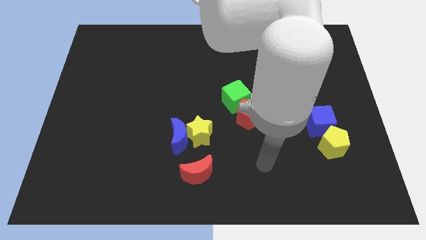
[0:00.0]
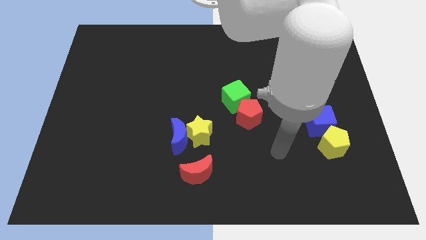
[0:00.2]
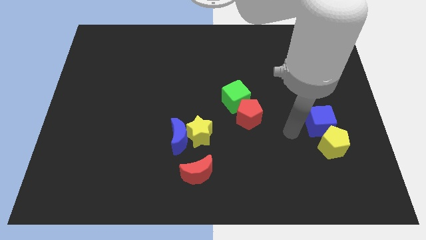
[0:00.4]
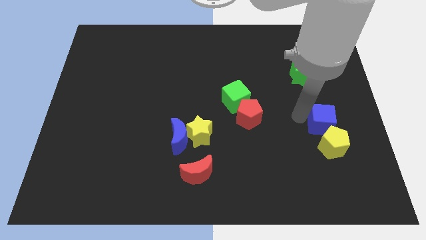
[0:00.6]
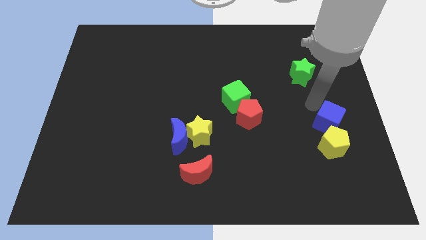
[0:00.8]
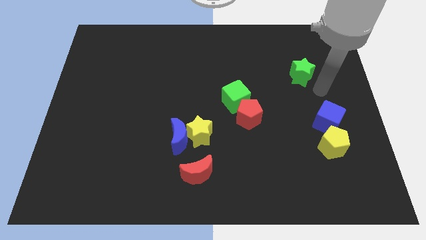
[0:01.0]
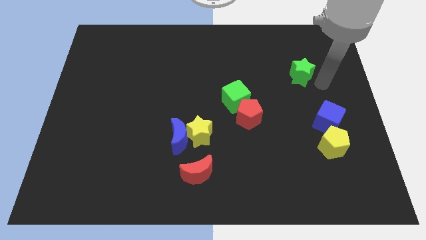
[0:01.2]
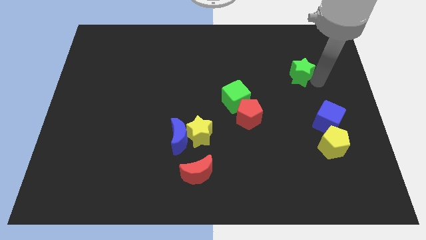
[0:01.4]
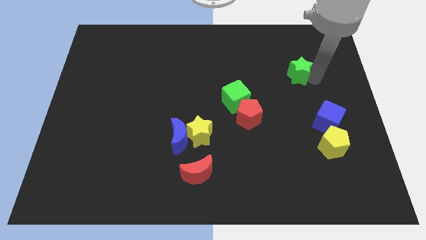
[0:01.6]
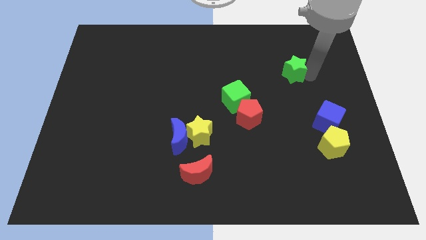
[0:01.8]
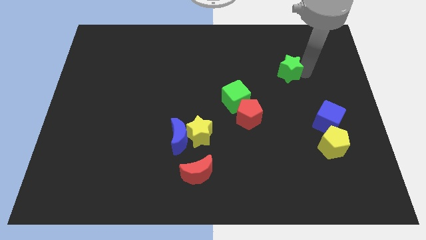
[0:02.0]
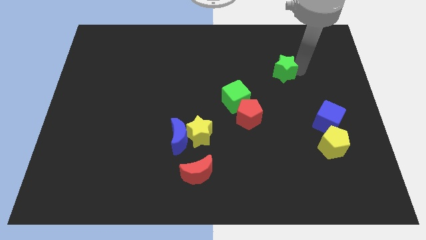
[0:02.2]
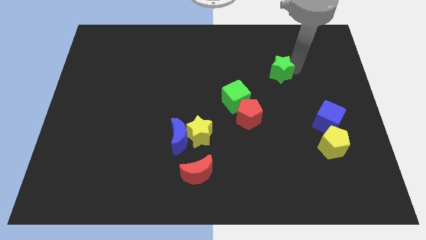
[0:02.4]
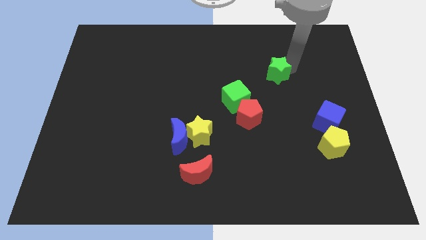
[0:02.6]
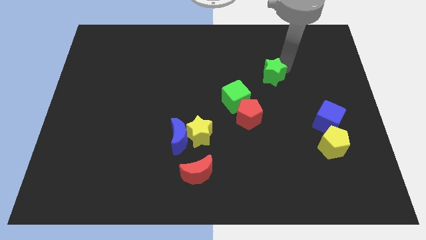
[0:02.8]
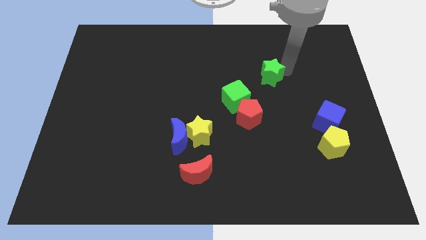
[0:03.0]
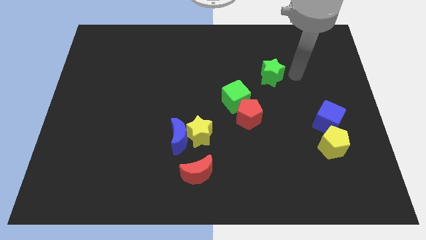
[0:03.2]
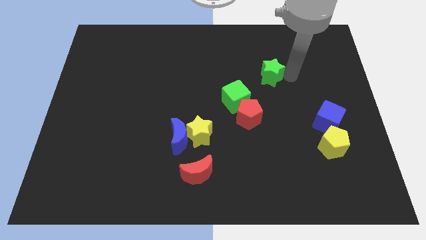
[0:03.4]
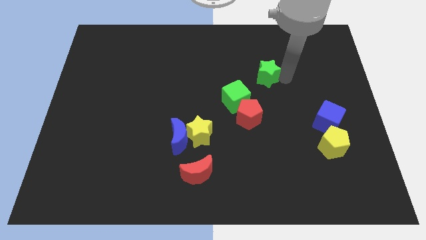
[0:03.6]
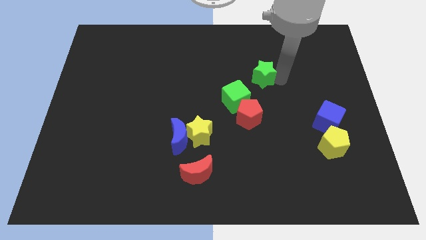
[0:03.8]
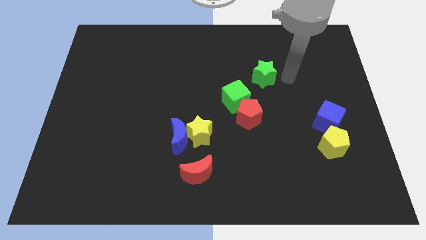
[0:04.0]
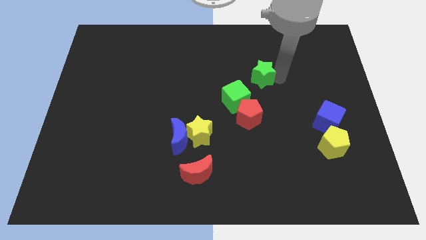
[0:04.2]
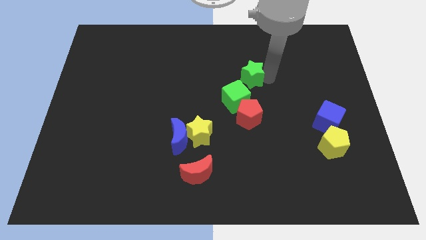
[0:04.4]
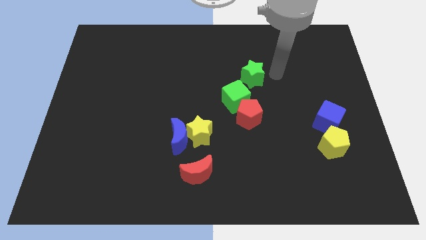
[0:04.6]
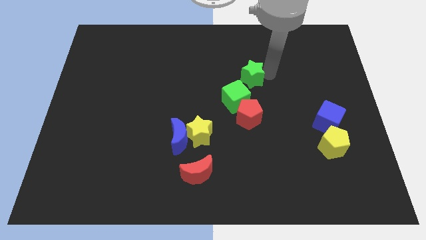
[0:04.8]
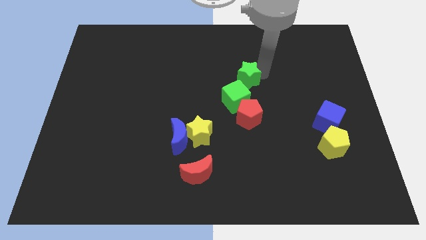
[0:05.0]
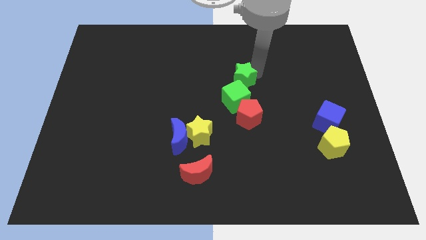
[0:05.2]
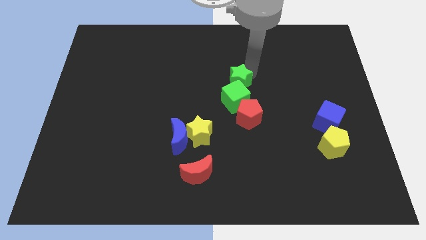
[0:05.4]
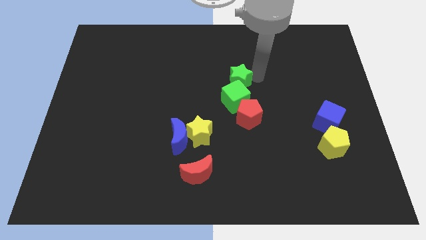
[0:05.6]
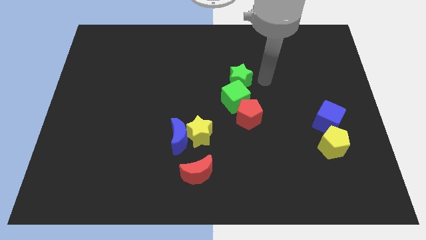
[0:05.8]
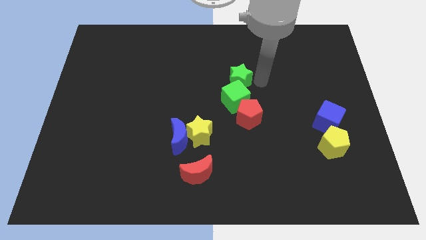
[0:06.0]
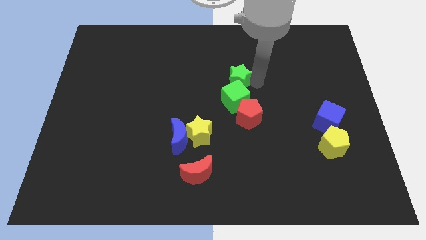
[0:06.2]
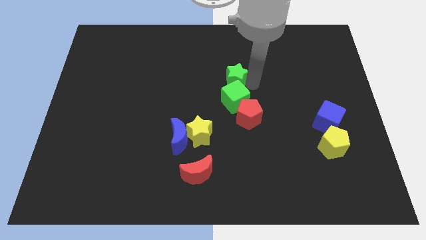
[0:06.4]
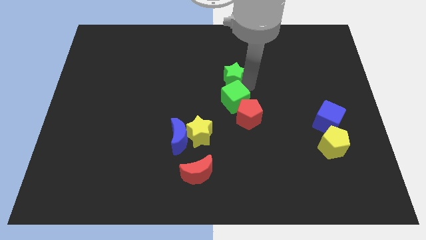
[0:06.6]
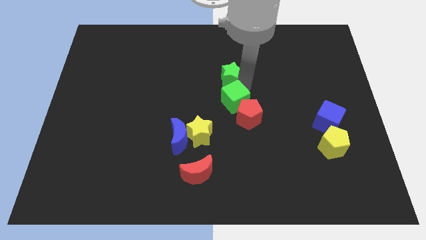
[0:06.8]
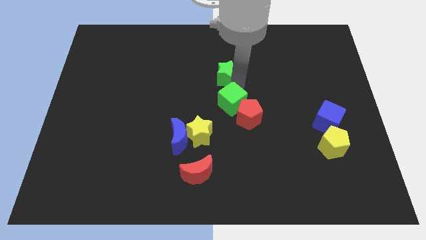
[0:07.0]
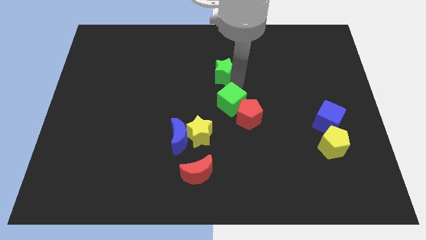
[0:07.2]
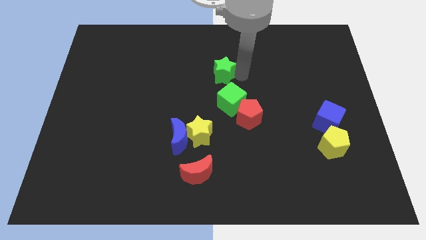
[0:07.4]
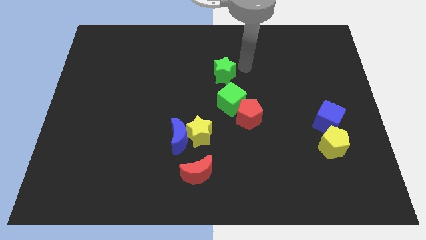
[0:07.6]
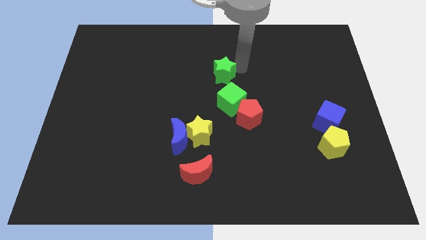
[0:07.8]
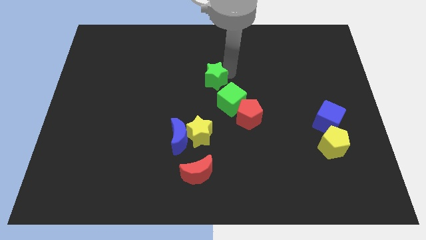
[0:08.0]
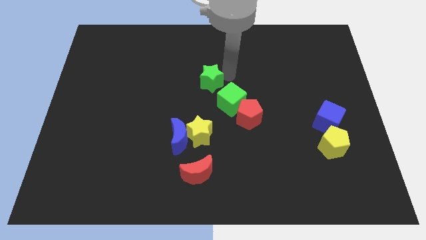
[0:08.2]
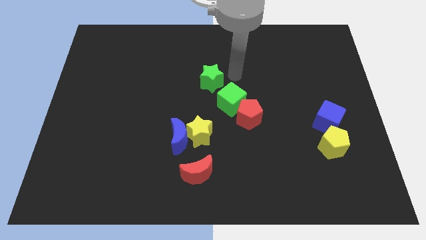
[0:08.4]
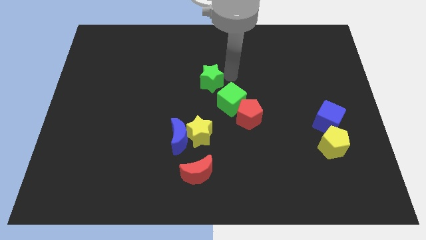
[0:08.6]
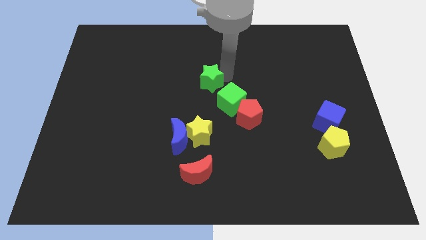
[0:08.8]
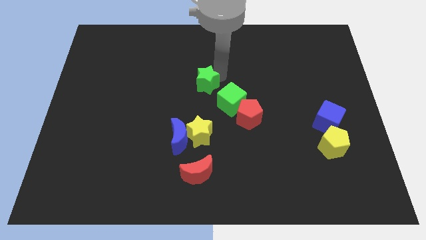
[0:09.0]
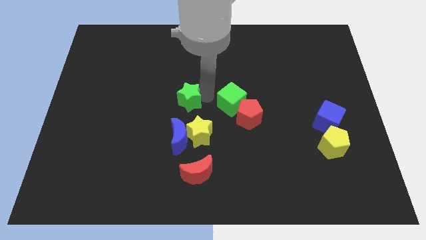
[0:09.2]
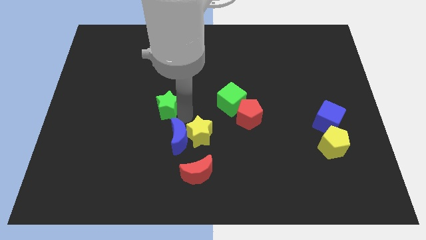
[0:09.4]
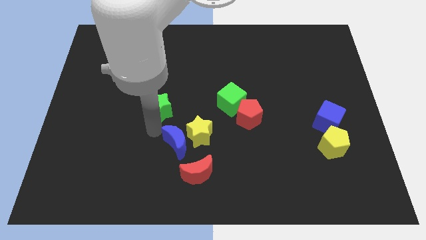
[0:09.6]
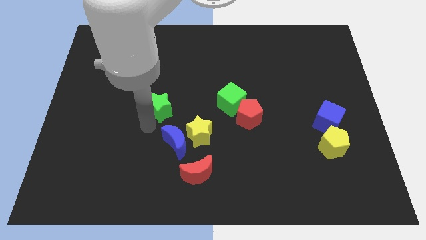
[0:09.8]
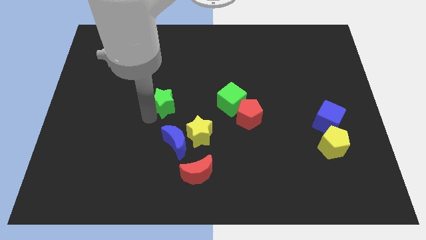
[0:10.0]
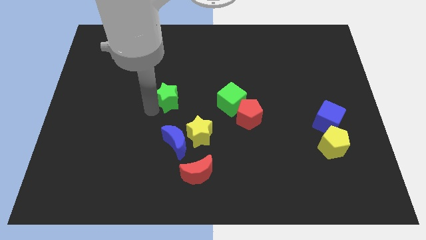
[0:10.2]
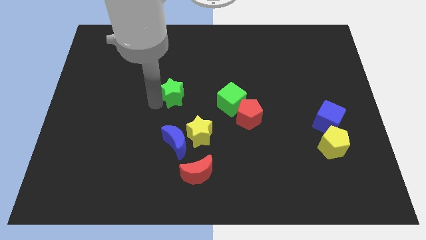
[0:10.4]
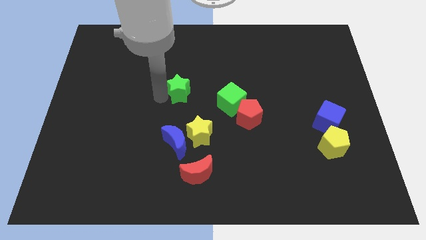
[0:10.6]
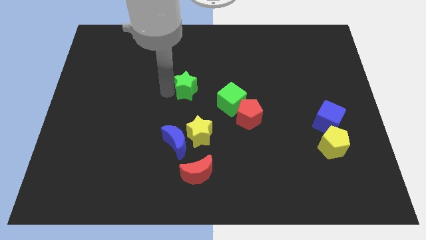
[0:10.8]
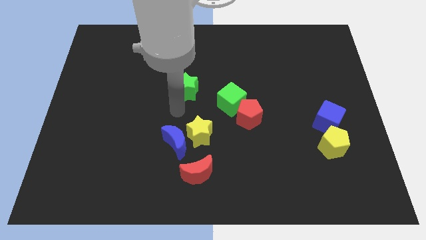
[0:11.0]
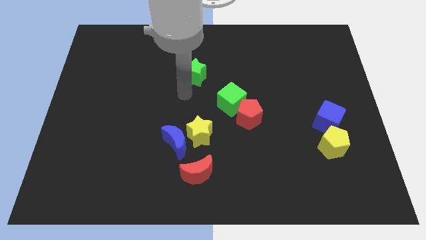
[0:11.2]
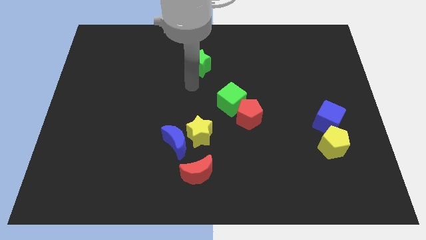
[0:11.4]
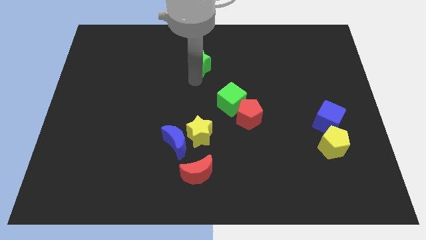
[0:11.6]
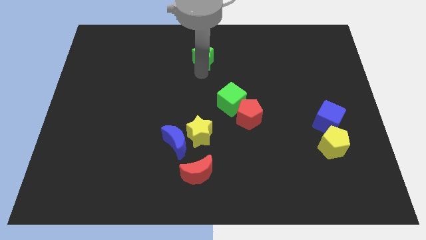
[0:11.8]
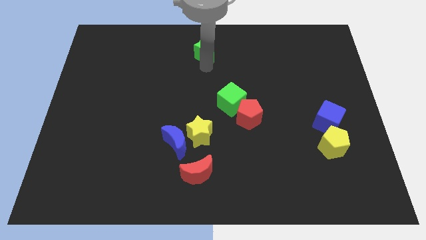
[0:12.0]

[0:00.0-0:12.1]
put the green star to the towards your base

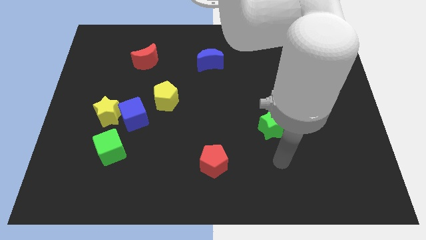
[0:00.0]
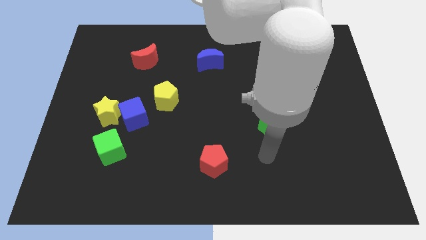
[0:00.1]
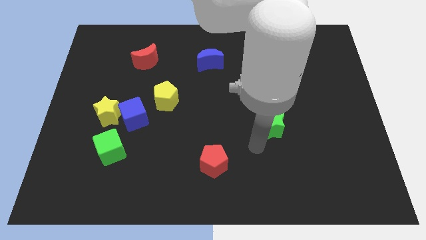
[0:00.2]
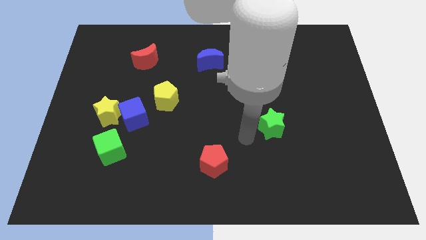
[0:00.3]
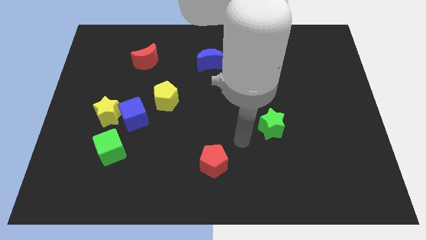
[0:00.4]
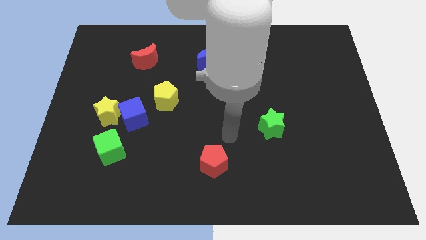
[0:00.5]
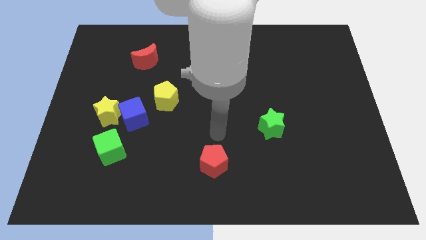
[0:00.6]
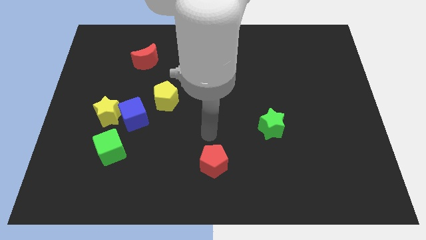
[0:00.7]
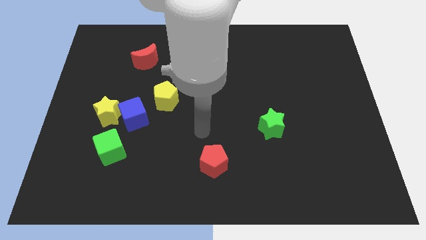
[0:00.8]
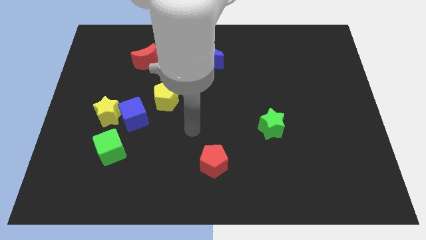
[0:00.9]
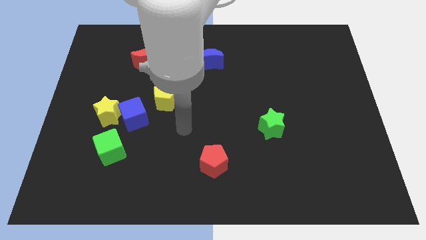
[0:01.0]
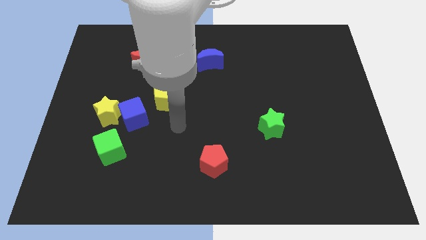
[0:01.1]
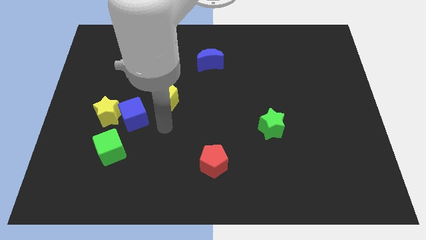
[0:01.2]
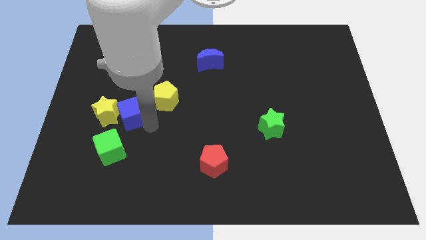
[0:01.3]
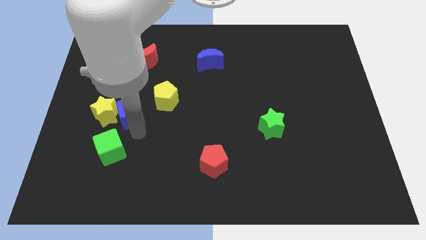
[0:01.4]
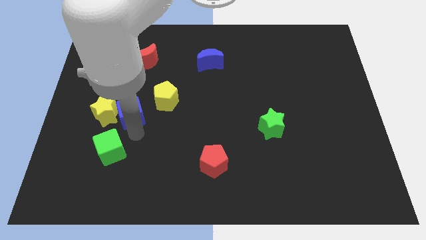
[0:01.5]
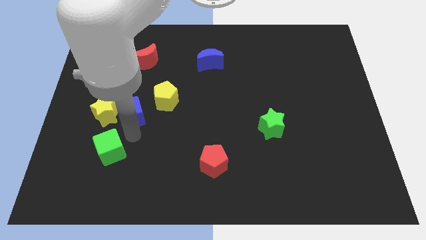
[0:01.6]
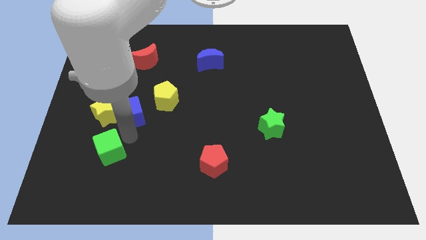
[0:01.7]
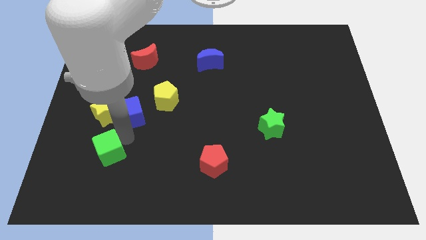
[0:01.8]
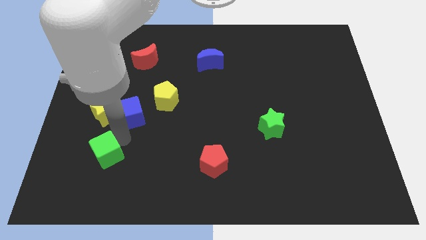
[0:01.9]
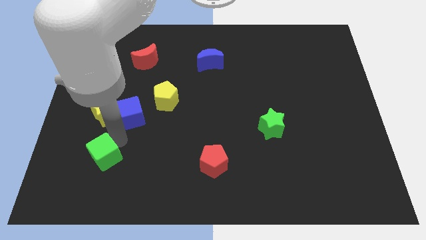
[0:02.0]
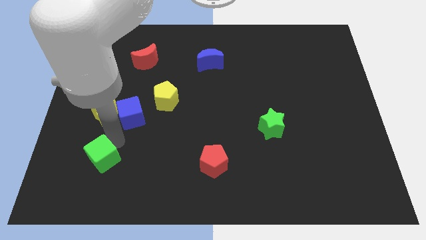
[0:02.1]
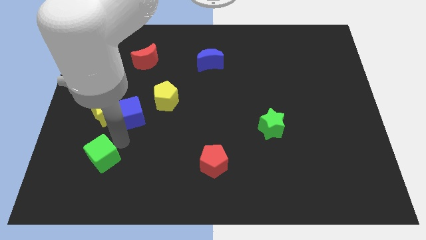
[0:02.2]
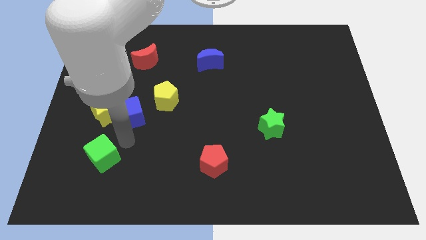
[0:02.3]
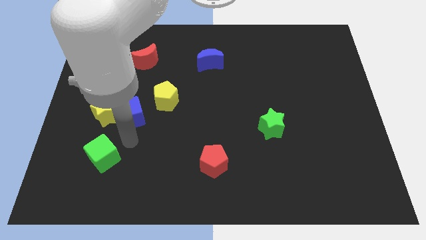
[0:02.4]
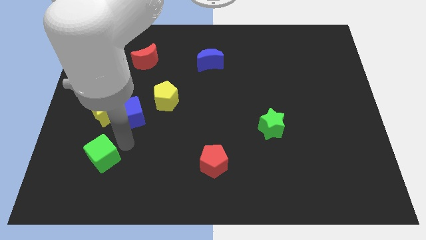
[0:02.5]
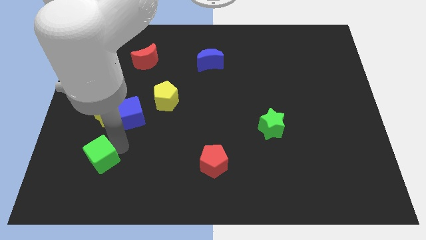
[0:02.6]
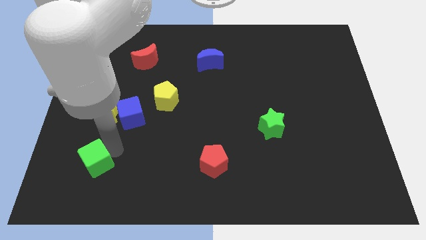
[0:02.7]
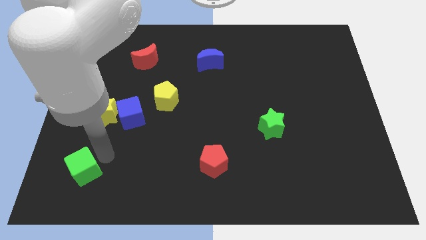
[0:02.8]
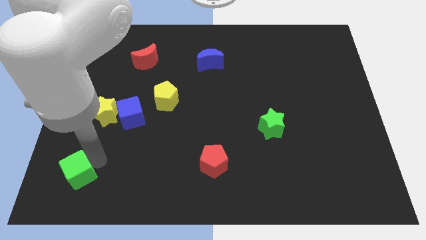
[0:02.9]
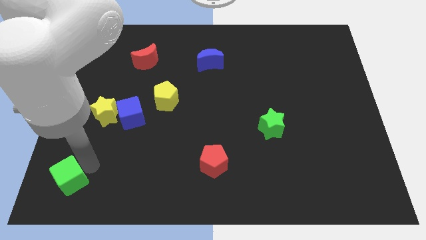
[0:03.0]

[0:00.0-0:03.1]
push the green cube to the lower left corner
